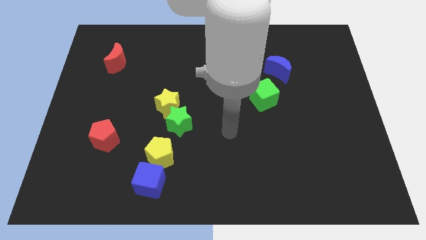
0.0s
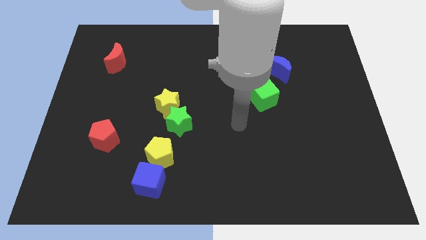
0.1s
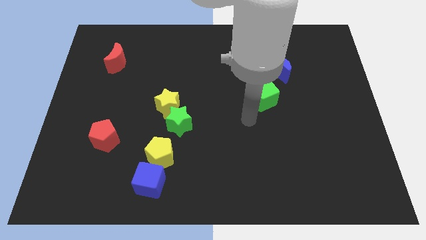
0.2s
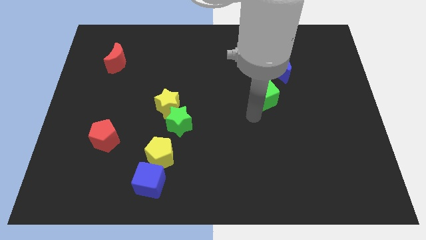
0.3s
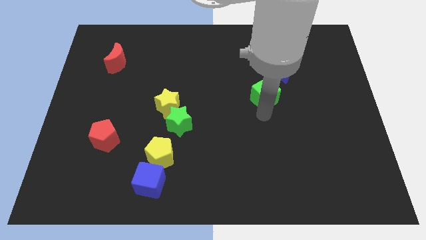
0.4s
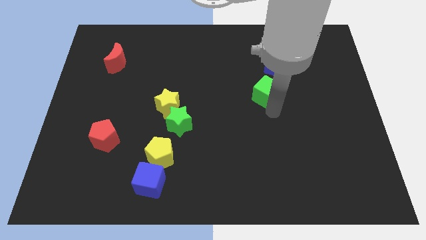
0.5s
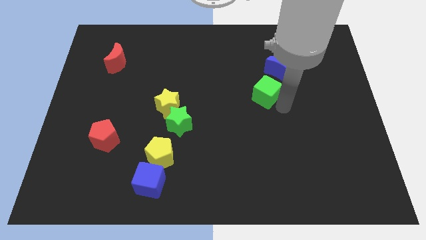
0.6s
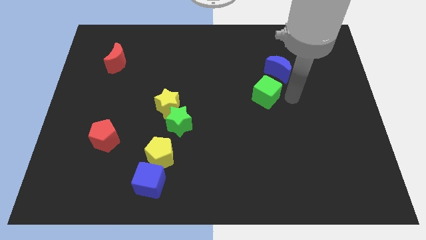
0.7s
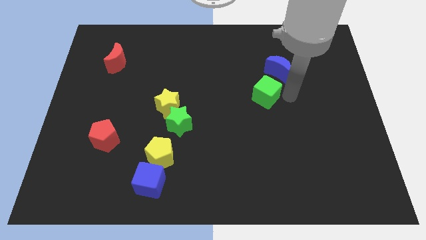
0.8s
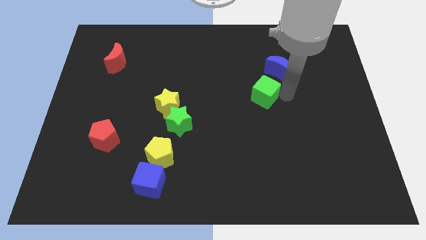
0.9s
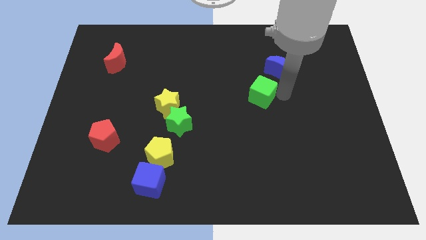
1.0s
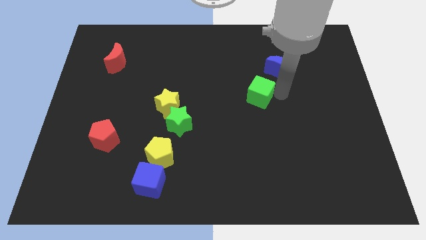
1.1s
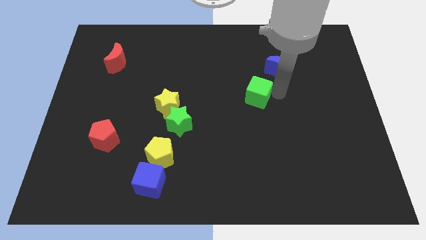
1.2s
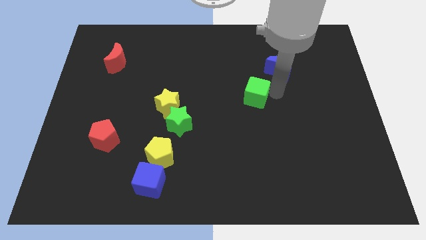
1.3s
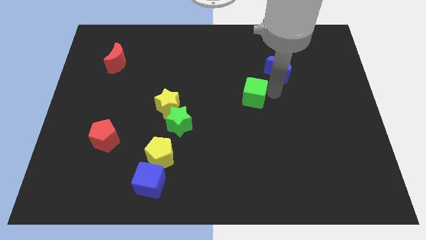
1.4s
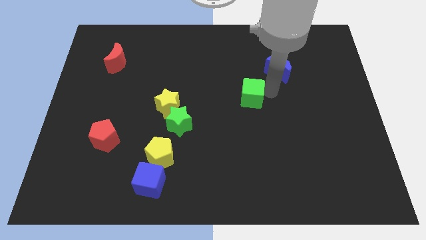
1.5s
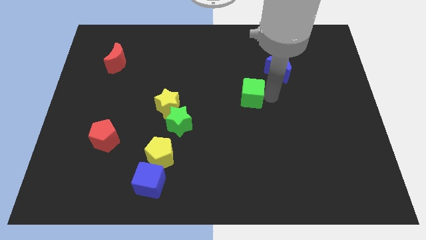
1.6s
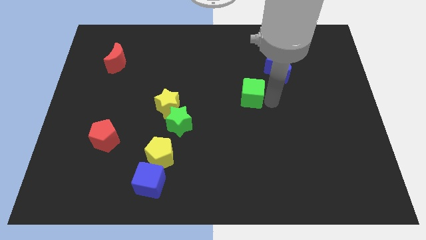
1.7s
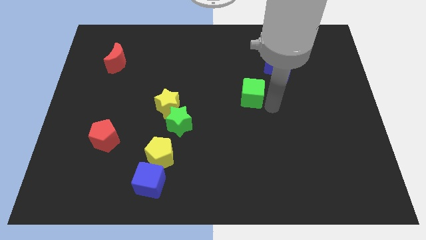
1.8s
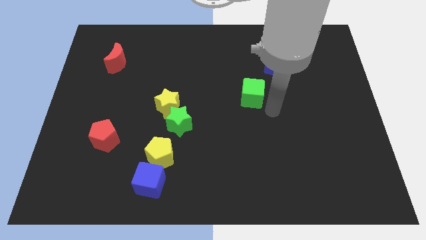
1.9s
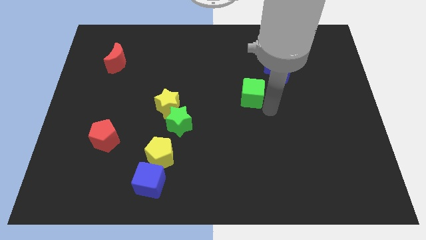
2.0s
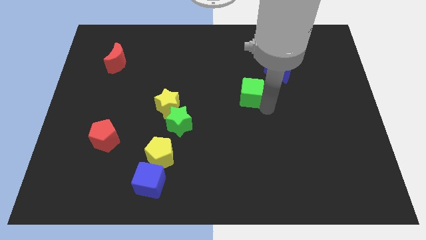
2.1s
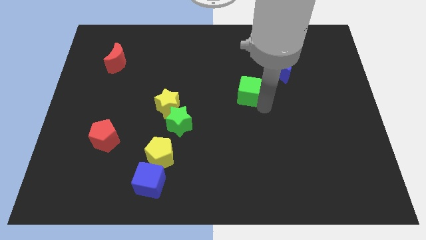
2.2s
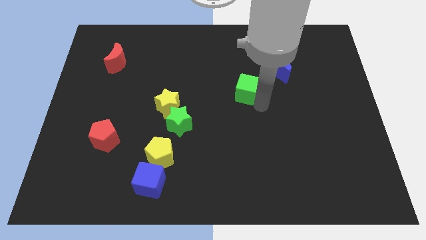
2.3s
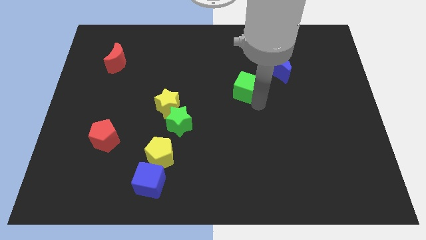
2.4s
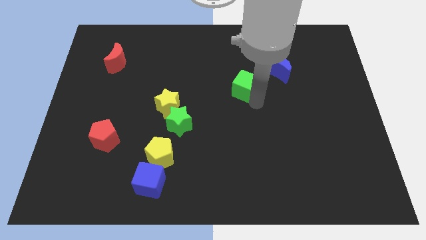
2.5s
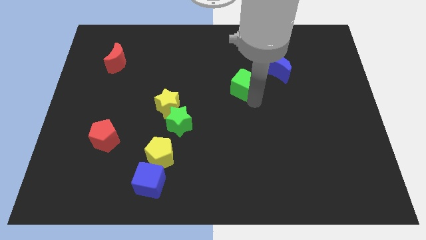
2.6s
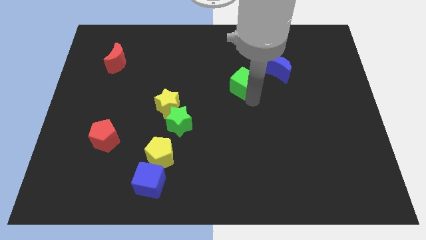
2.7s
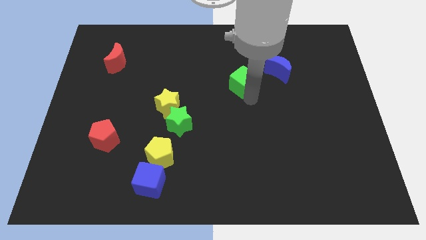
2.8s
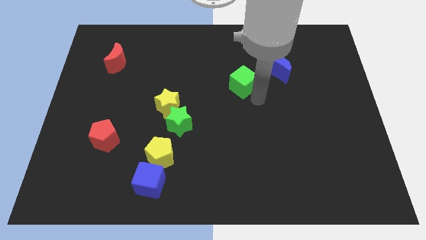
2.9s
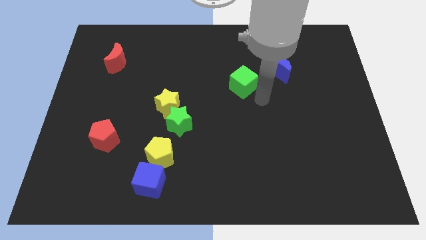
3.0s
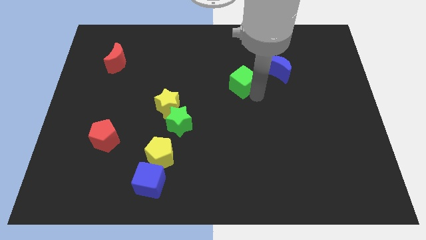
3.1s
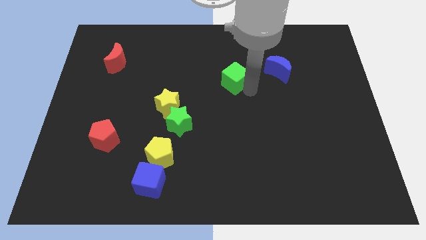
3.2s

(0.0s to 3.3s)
push the green cube a bit diagonally upwards and to the left

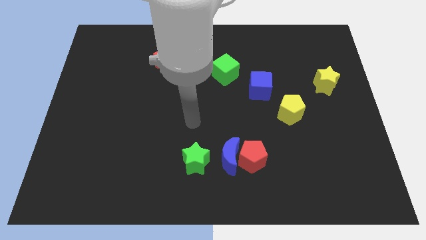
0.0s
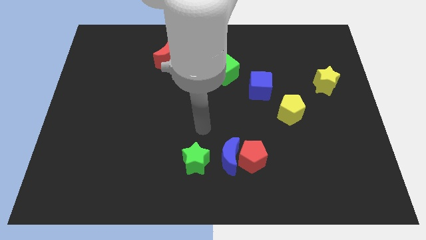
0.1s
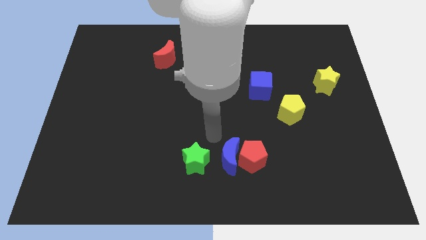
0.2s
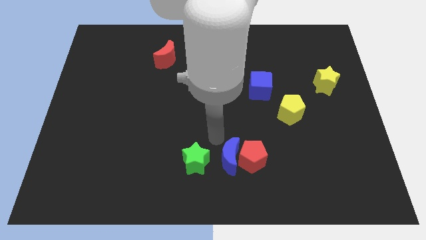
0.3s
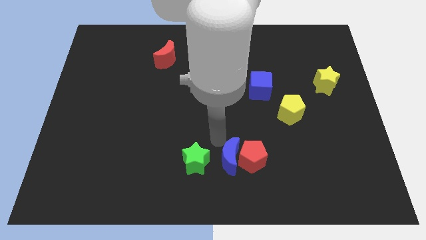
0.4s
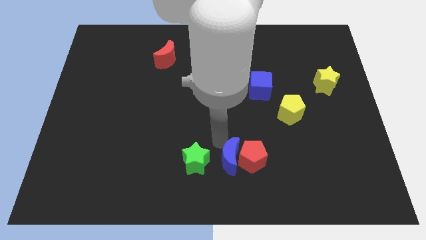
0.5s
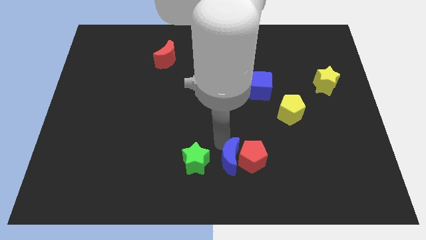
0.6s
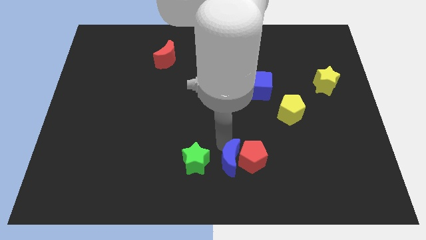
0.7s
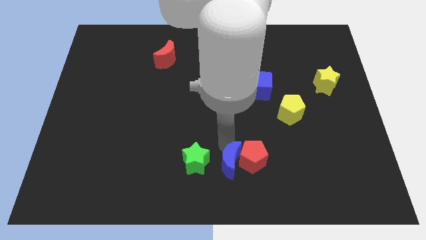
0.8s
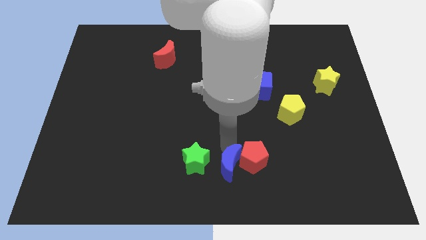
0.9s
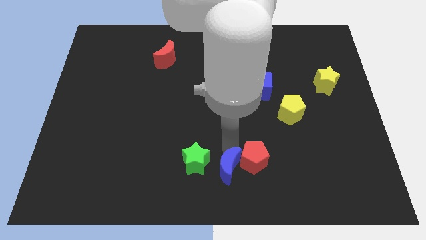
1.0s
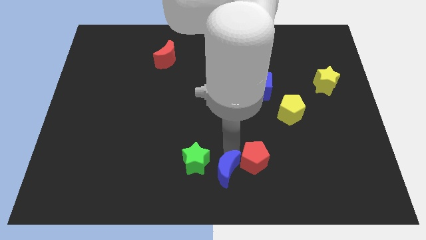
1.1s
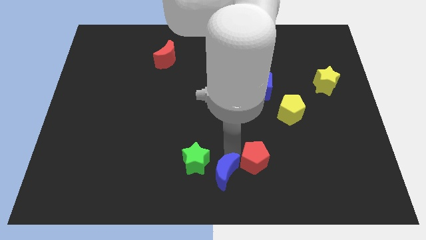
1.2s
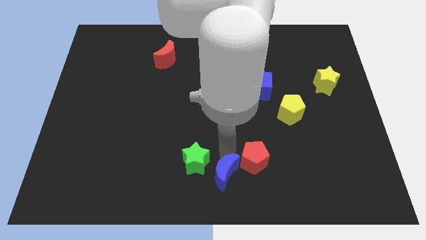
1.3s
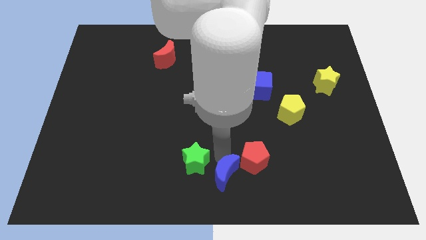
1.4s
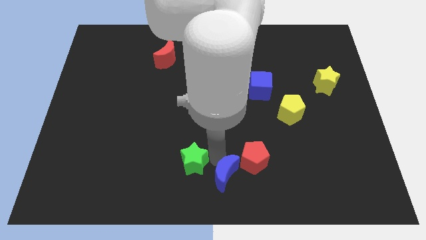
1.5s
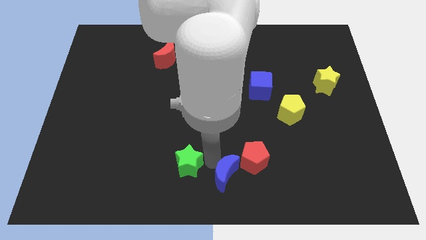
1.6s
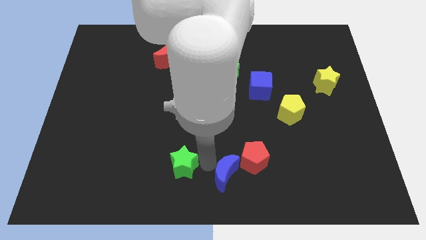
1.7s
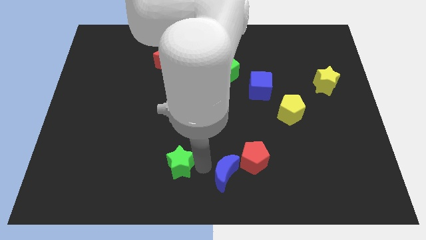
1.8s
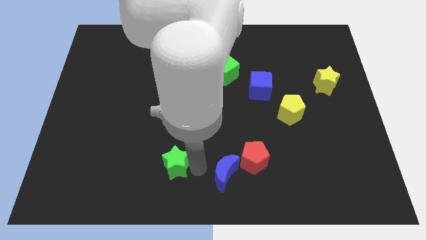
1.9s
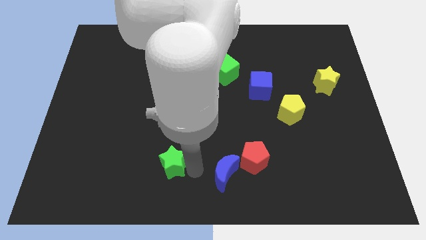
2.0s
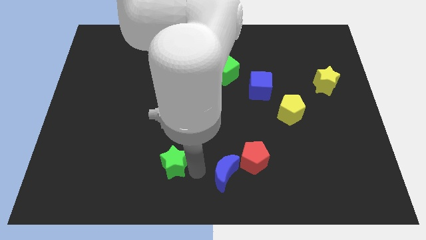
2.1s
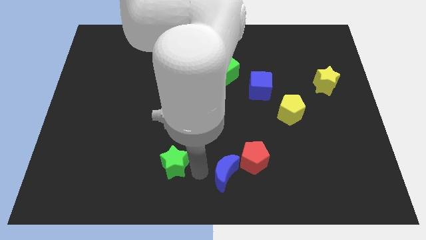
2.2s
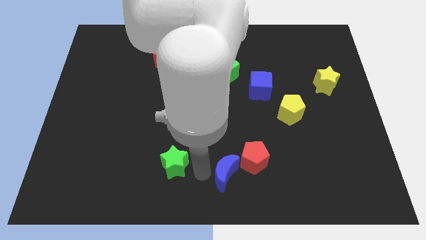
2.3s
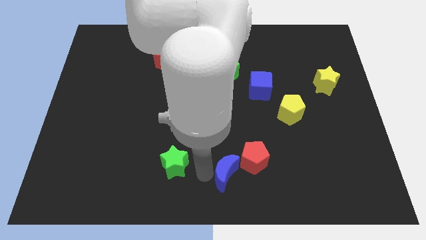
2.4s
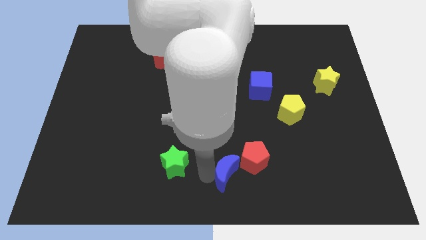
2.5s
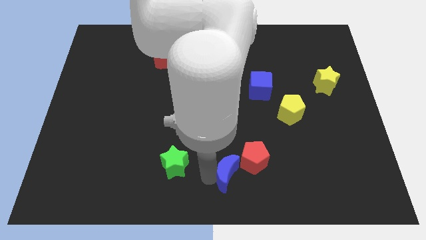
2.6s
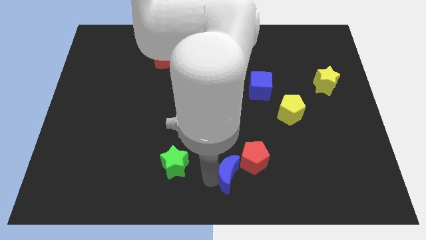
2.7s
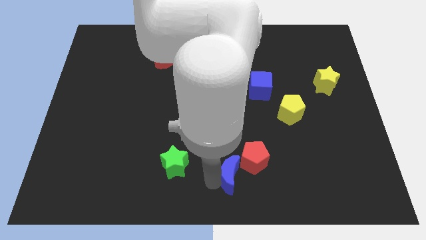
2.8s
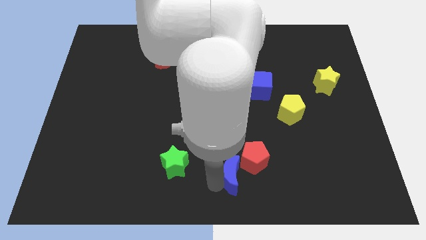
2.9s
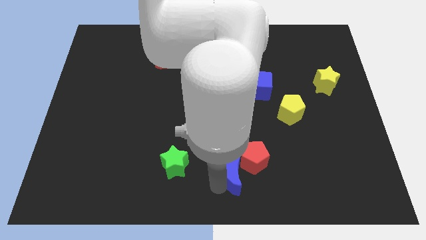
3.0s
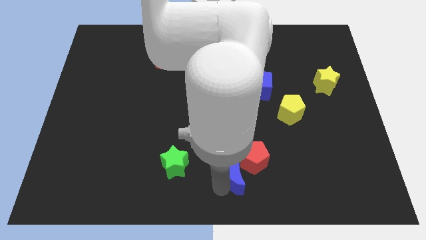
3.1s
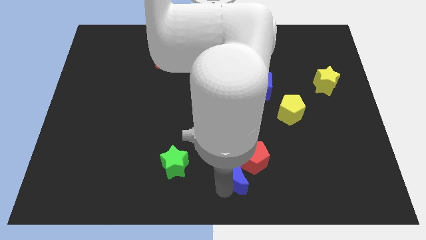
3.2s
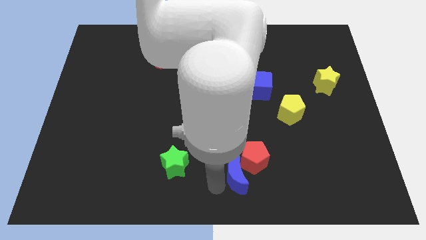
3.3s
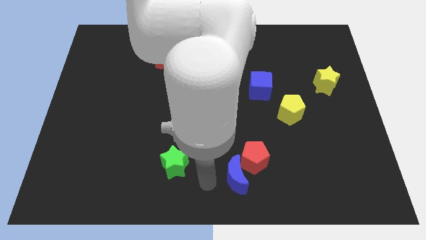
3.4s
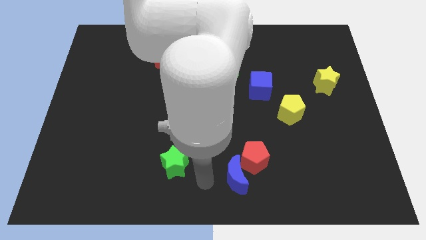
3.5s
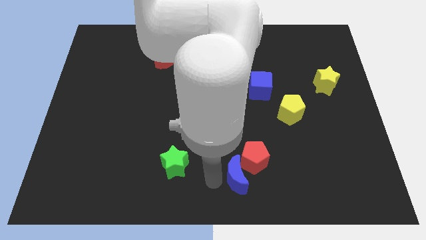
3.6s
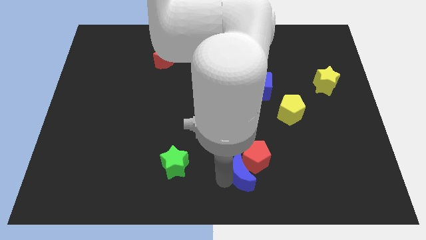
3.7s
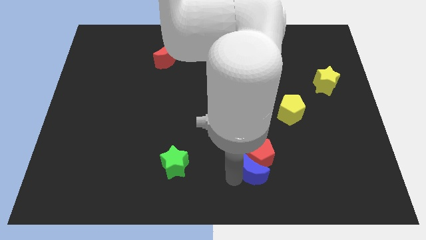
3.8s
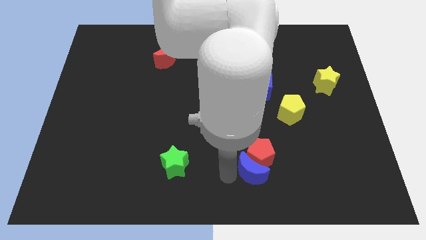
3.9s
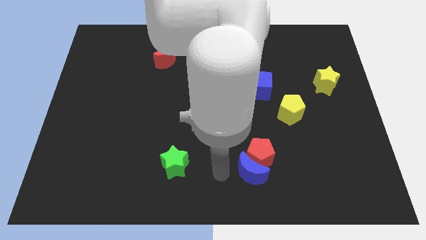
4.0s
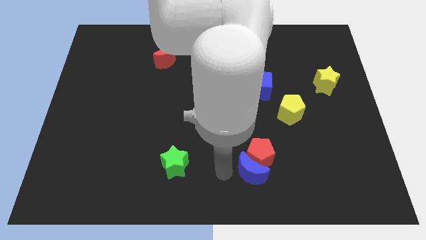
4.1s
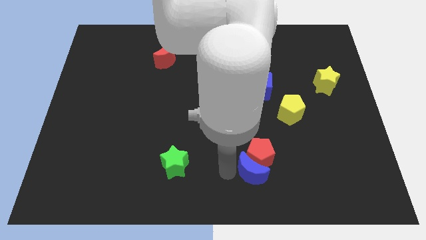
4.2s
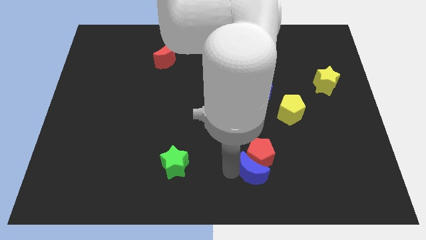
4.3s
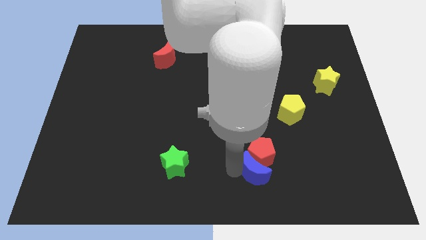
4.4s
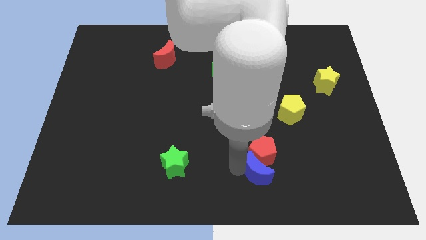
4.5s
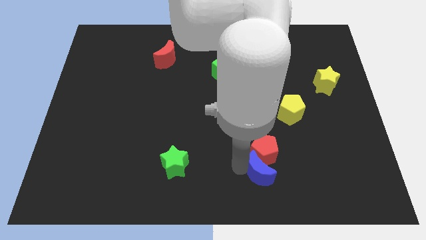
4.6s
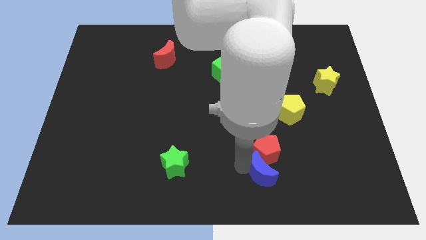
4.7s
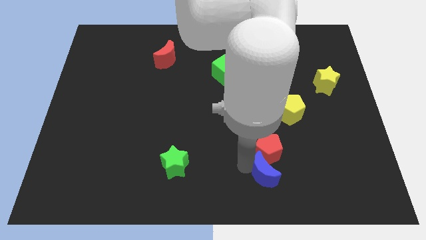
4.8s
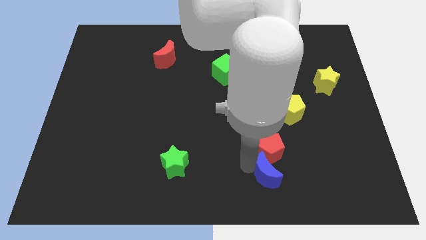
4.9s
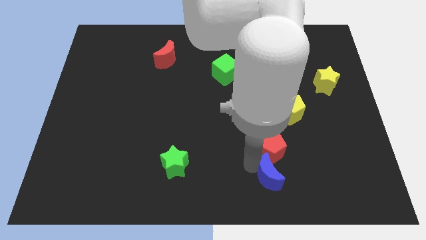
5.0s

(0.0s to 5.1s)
move the blue moon to the right a little bit
